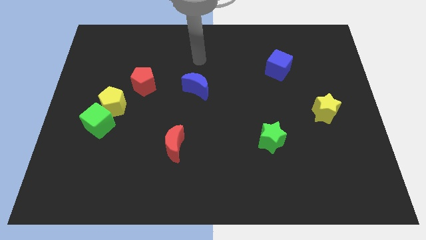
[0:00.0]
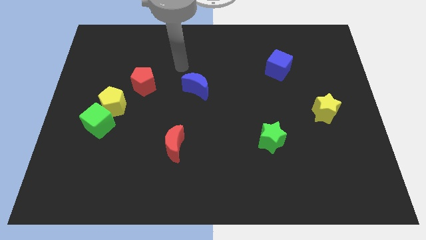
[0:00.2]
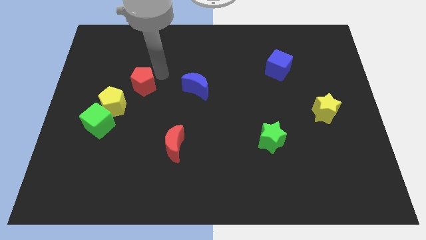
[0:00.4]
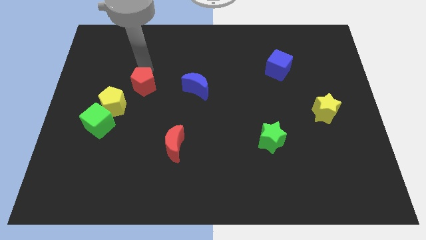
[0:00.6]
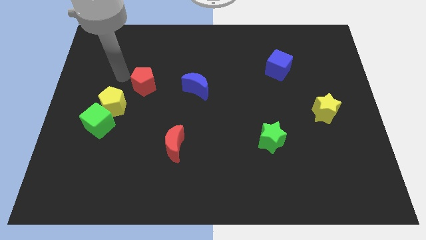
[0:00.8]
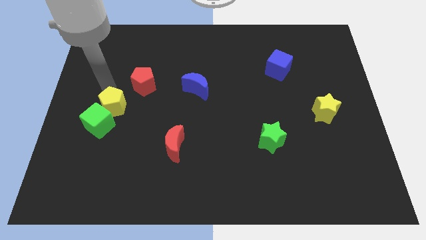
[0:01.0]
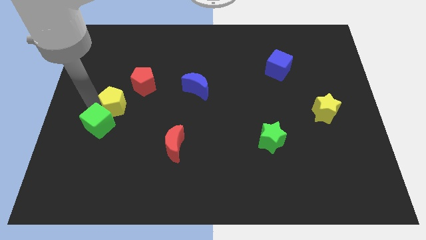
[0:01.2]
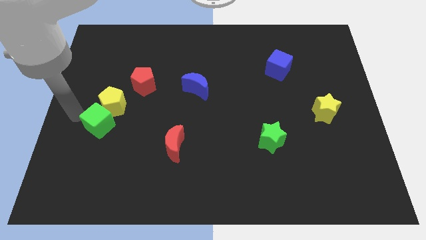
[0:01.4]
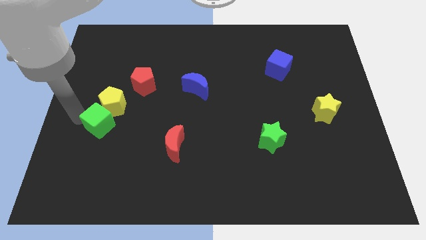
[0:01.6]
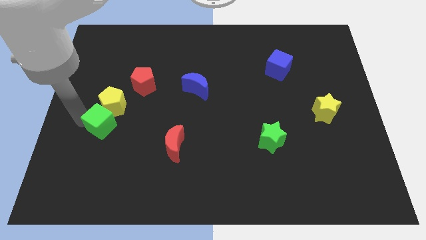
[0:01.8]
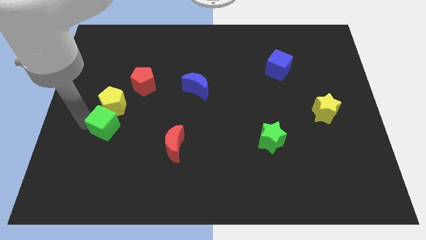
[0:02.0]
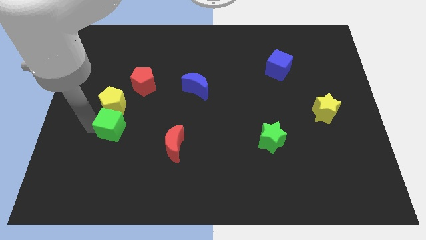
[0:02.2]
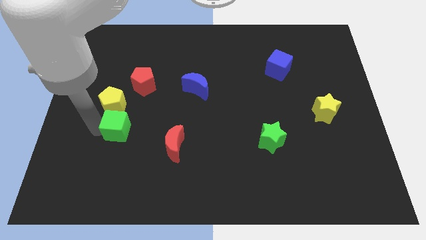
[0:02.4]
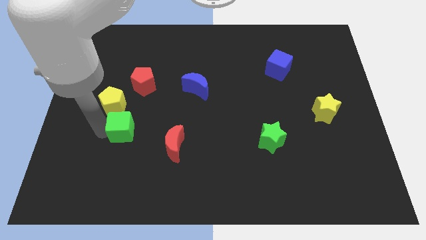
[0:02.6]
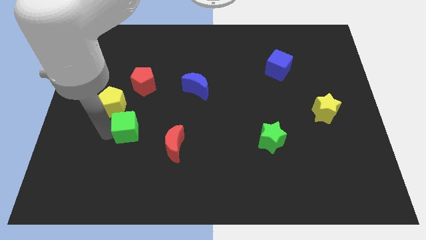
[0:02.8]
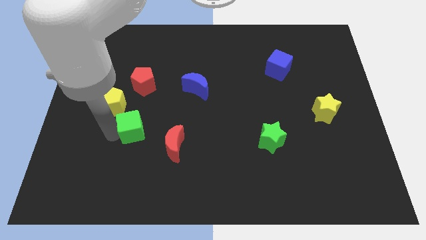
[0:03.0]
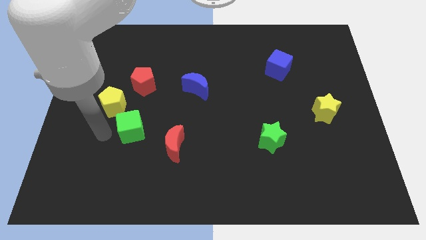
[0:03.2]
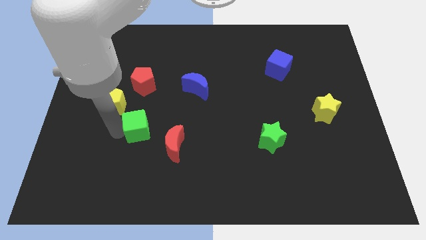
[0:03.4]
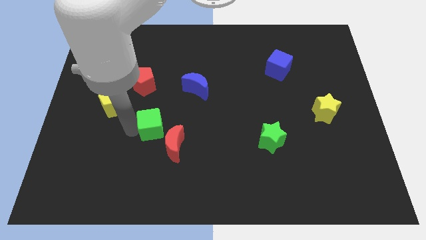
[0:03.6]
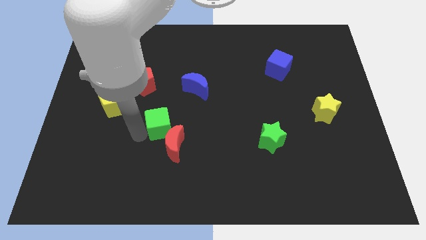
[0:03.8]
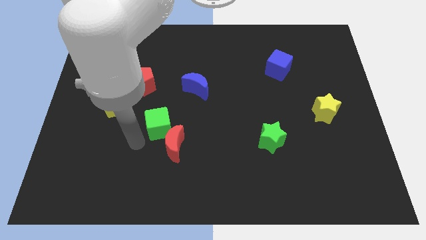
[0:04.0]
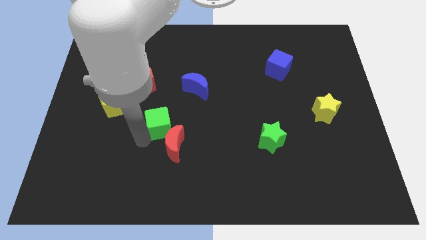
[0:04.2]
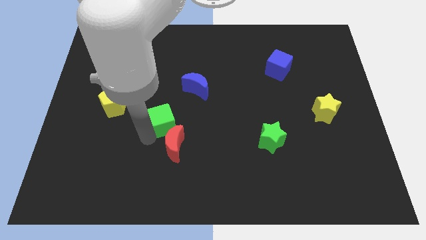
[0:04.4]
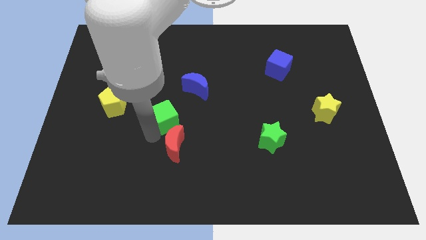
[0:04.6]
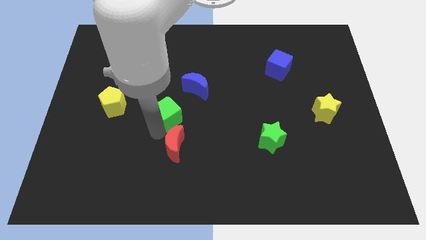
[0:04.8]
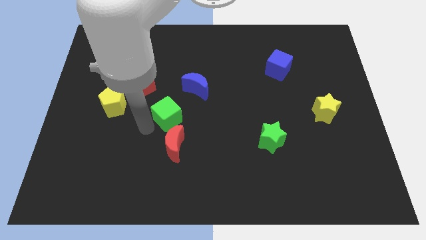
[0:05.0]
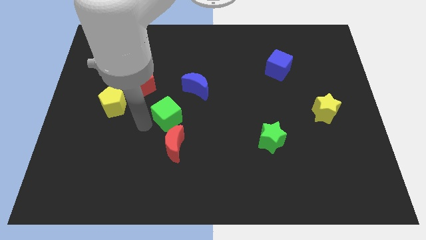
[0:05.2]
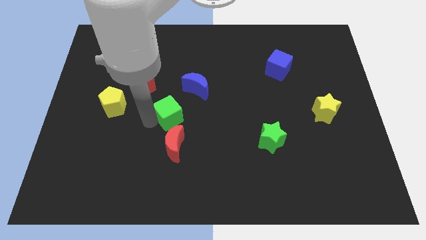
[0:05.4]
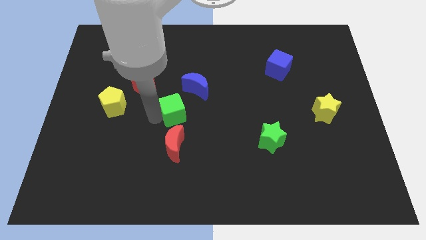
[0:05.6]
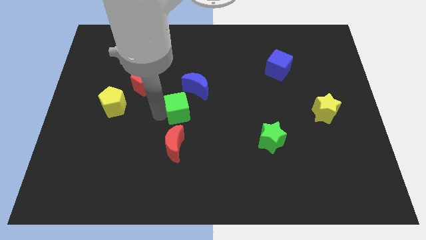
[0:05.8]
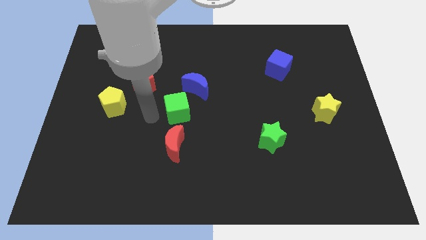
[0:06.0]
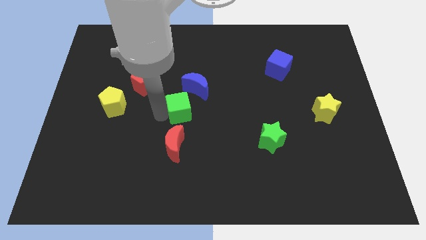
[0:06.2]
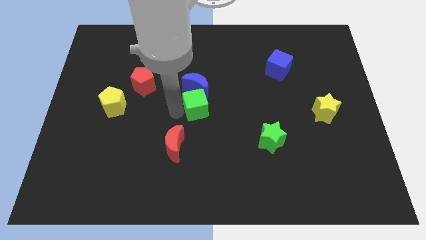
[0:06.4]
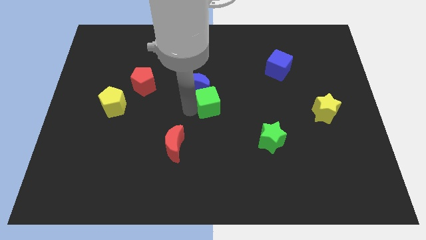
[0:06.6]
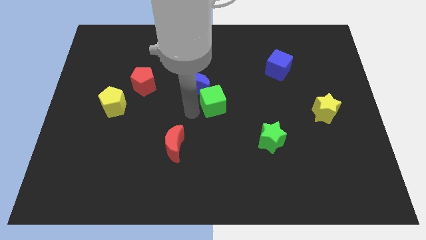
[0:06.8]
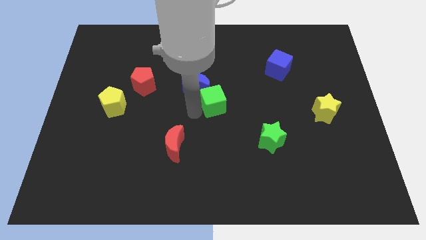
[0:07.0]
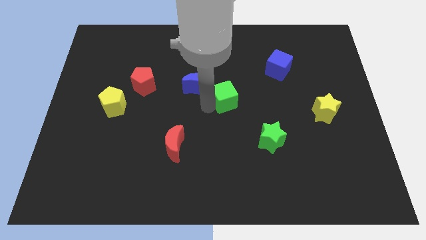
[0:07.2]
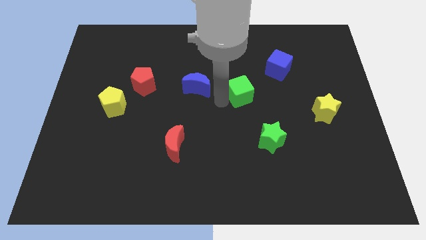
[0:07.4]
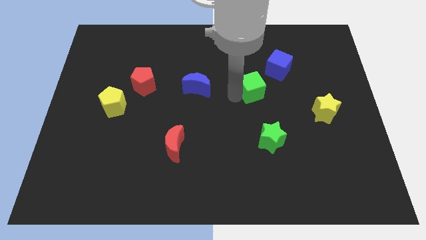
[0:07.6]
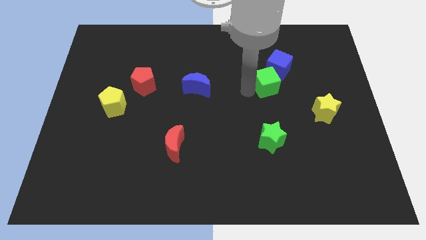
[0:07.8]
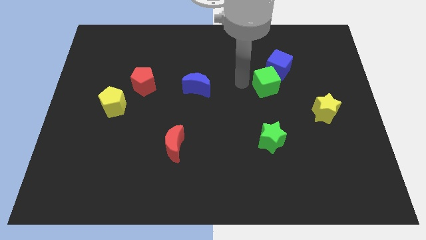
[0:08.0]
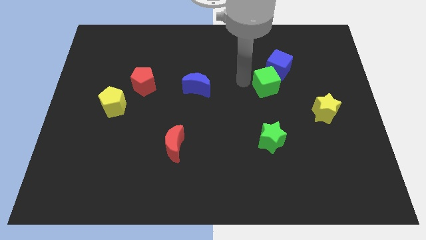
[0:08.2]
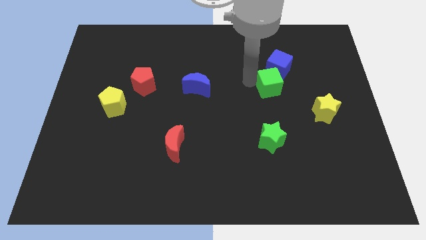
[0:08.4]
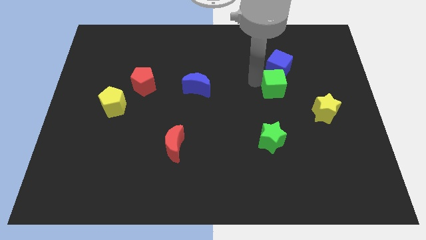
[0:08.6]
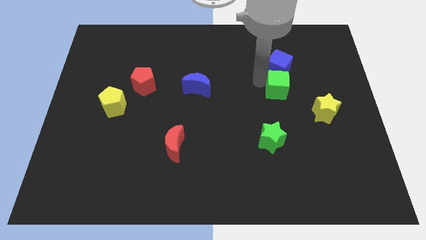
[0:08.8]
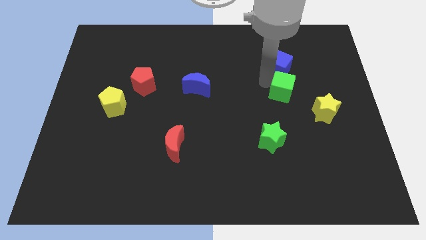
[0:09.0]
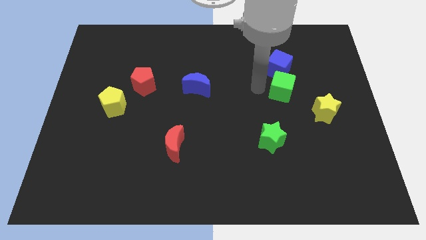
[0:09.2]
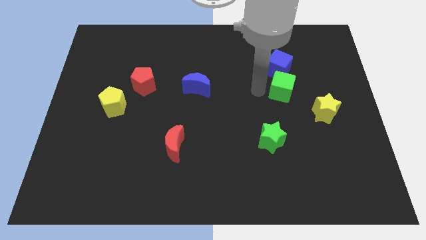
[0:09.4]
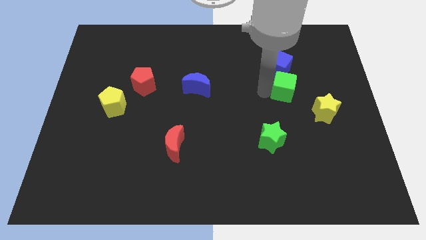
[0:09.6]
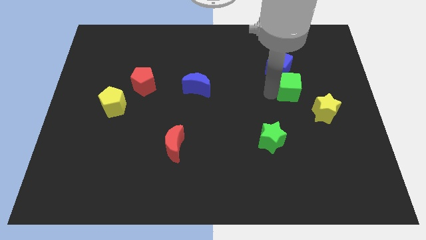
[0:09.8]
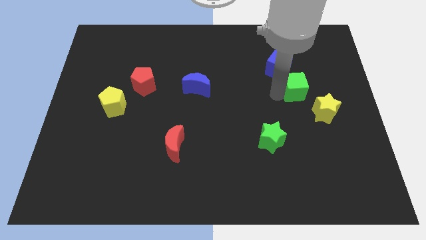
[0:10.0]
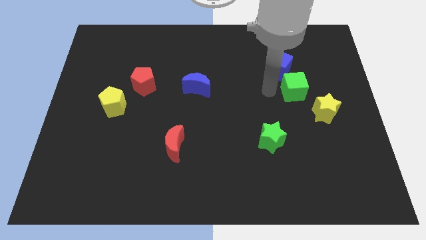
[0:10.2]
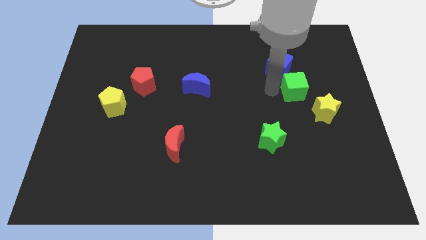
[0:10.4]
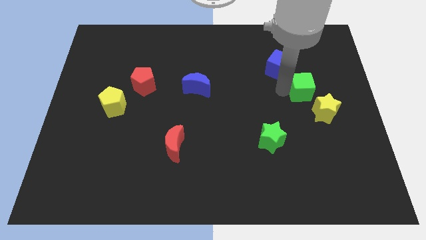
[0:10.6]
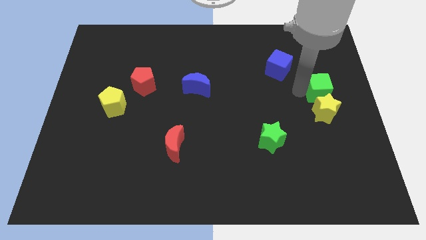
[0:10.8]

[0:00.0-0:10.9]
put the green cube to the right side

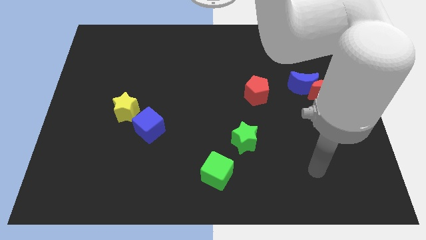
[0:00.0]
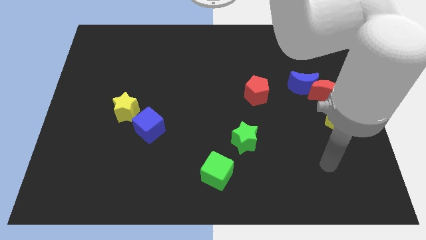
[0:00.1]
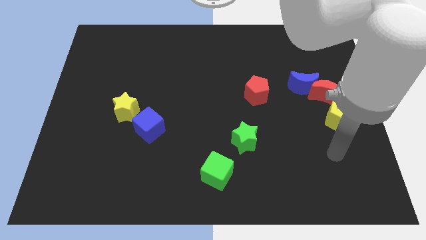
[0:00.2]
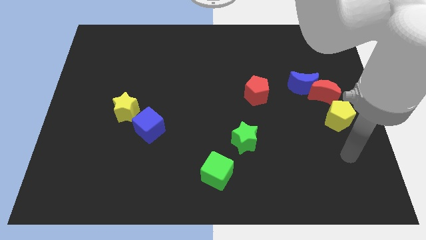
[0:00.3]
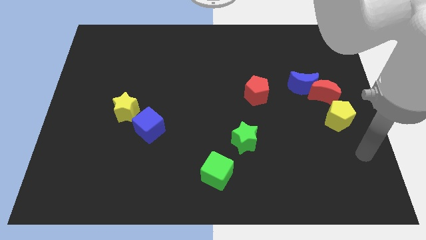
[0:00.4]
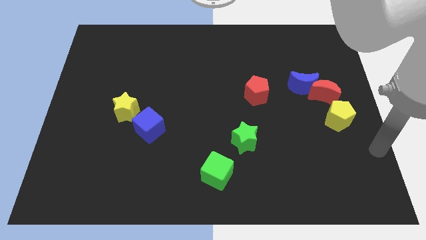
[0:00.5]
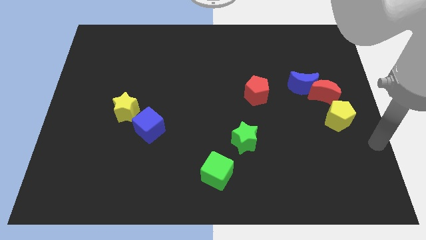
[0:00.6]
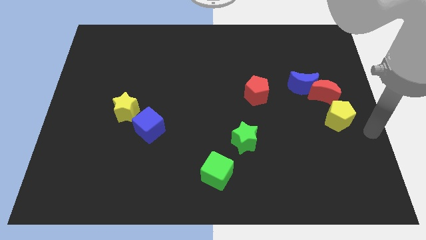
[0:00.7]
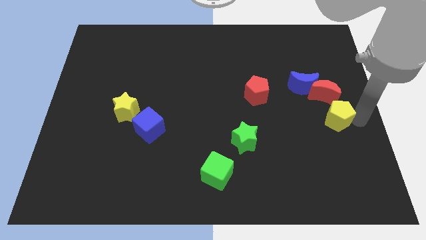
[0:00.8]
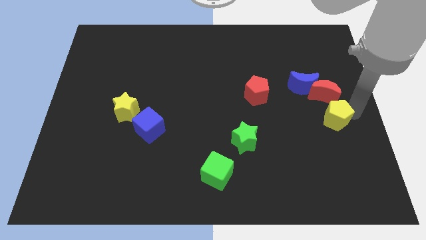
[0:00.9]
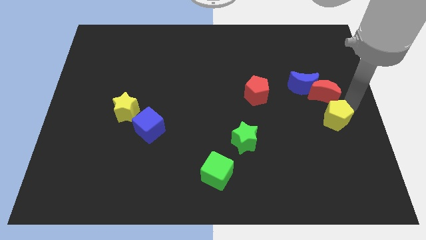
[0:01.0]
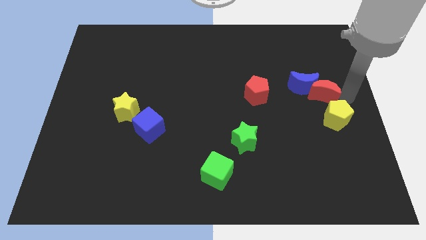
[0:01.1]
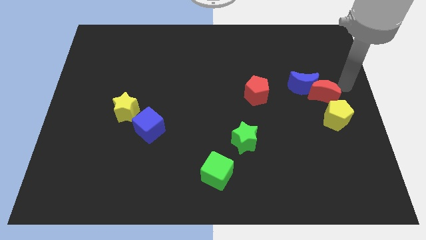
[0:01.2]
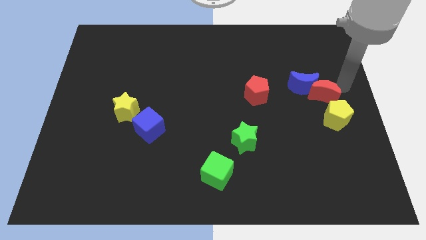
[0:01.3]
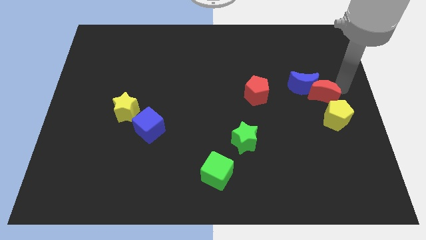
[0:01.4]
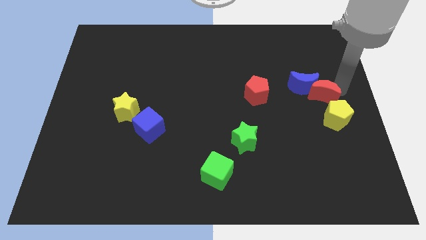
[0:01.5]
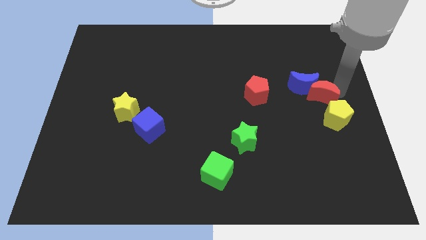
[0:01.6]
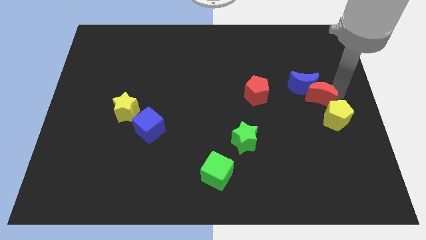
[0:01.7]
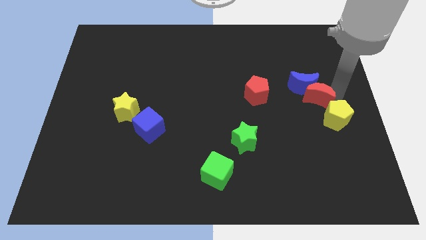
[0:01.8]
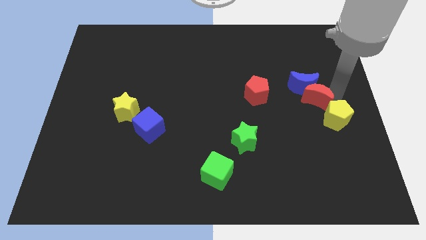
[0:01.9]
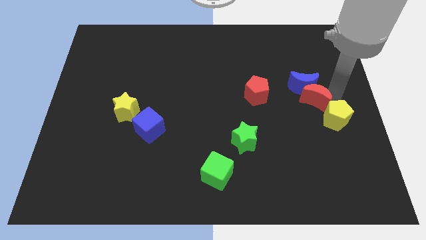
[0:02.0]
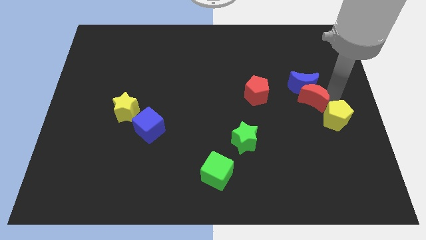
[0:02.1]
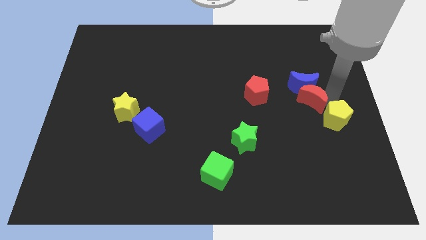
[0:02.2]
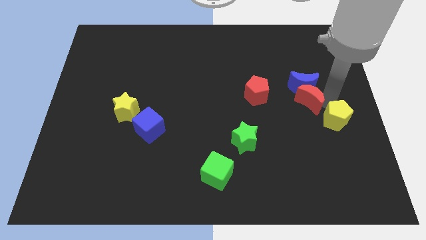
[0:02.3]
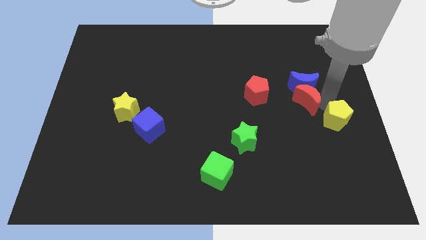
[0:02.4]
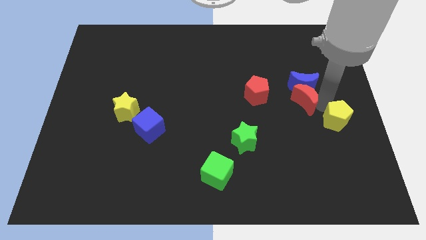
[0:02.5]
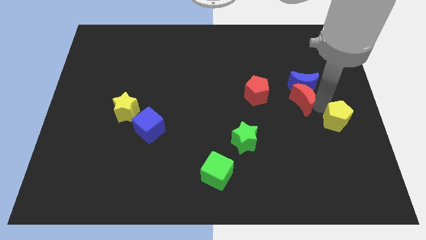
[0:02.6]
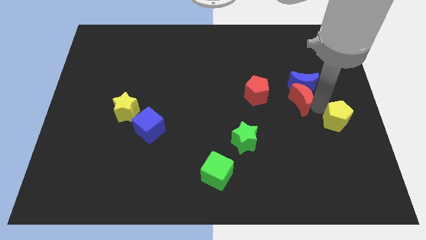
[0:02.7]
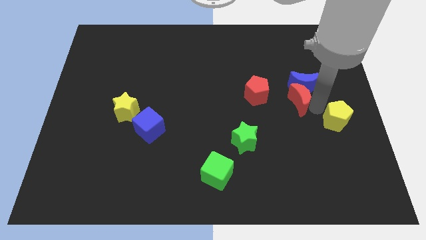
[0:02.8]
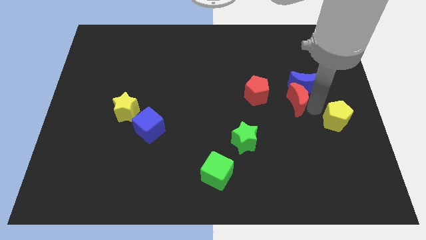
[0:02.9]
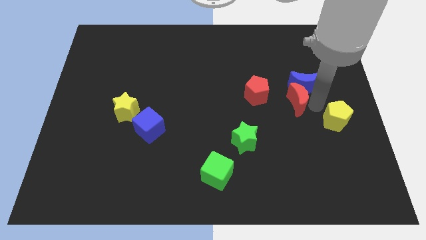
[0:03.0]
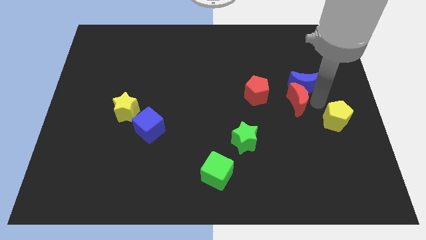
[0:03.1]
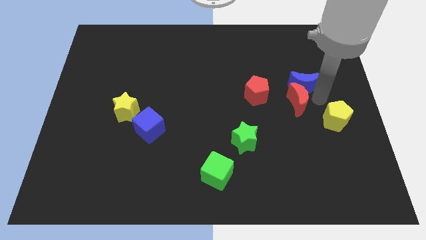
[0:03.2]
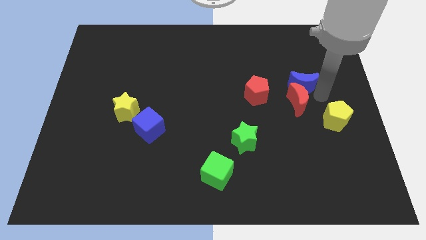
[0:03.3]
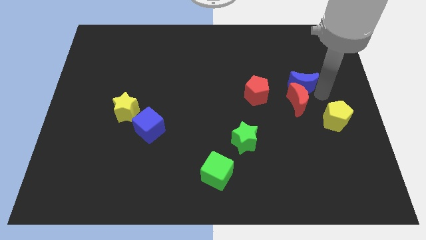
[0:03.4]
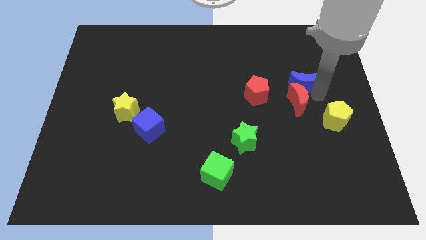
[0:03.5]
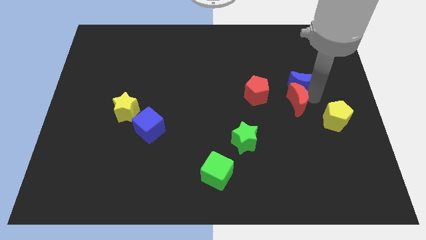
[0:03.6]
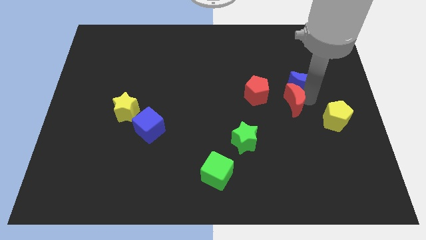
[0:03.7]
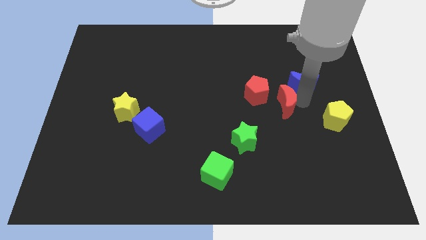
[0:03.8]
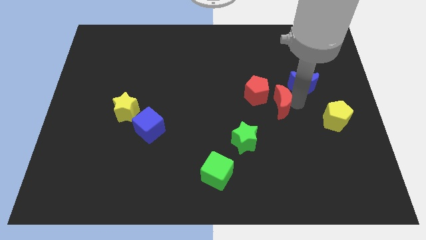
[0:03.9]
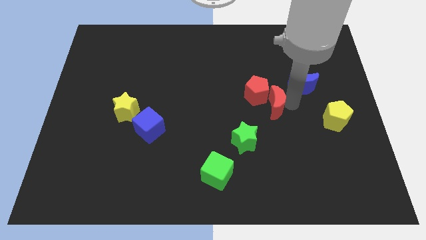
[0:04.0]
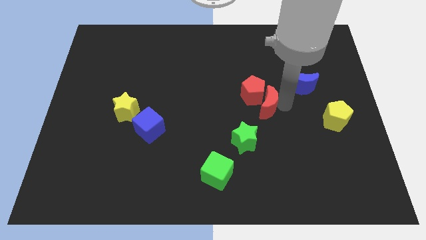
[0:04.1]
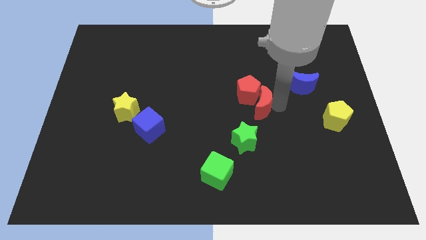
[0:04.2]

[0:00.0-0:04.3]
push the red moon to the middle
